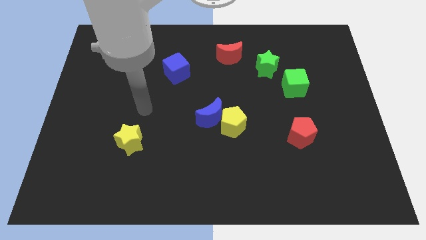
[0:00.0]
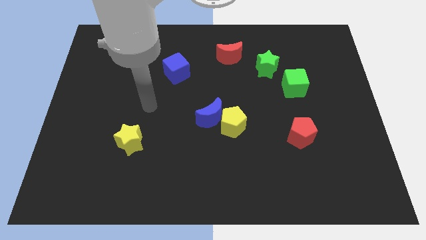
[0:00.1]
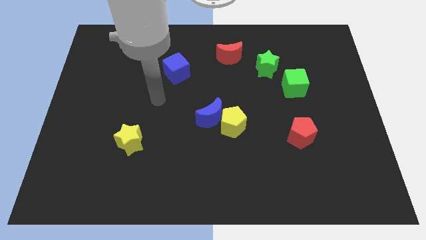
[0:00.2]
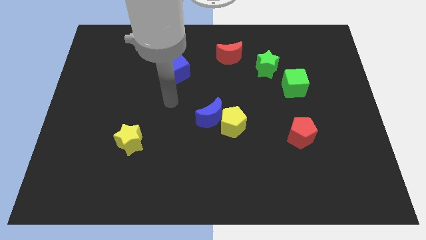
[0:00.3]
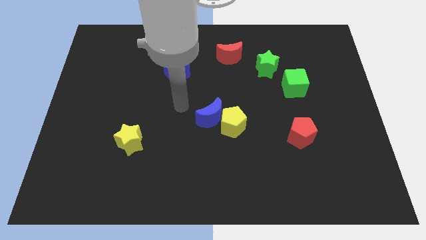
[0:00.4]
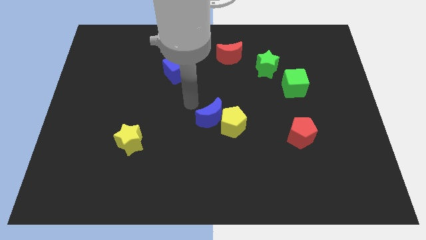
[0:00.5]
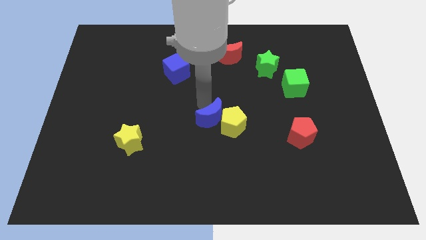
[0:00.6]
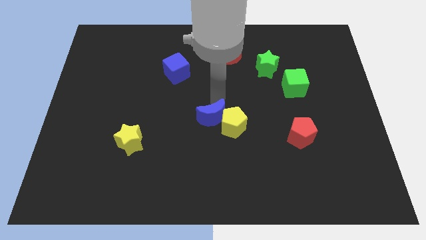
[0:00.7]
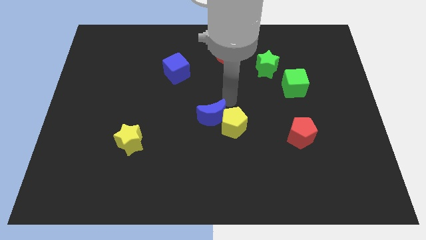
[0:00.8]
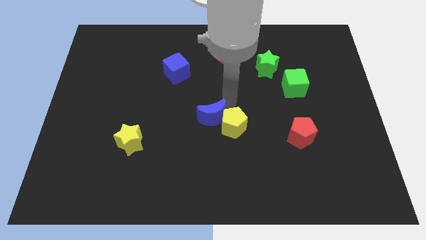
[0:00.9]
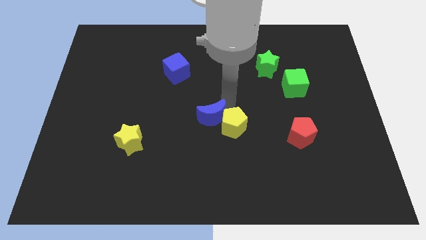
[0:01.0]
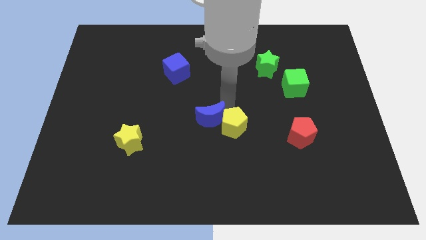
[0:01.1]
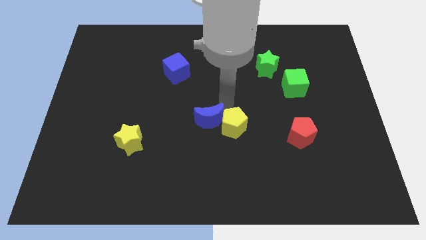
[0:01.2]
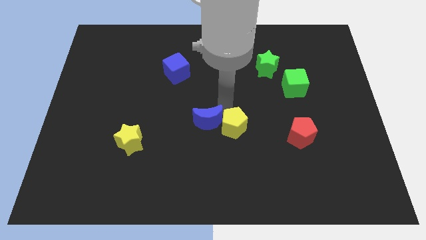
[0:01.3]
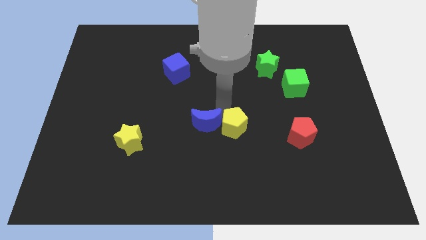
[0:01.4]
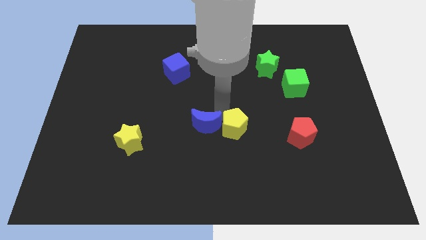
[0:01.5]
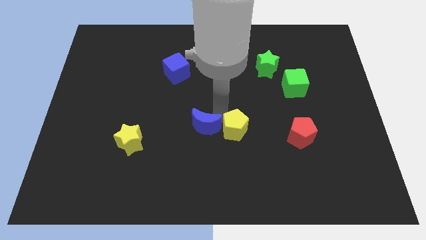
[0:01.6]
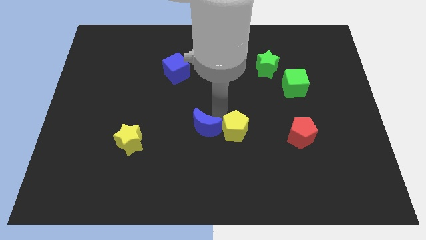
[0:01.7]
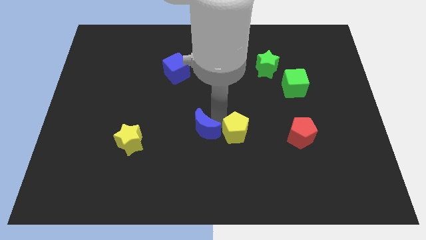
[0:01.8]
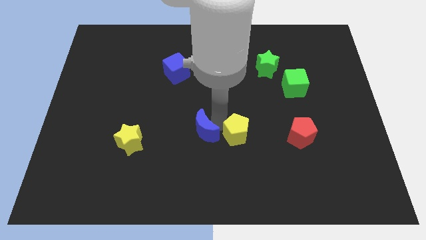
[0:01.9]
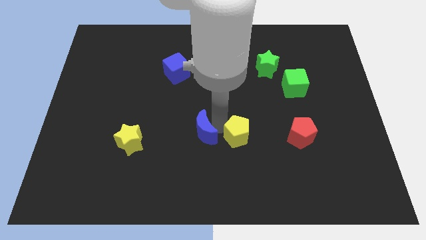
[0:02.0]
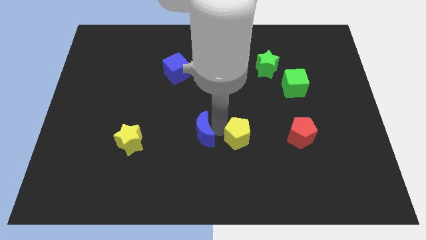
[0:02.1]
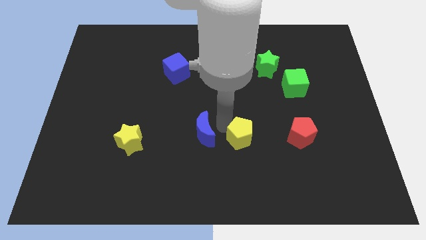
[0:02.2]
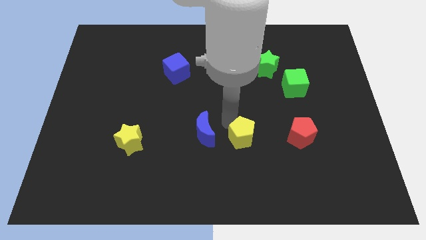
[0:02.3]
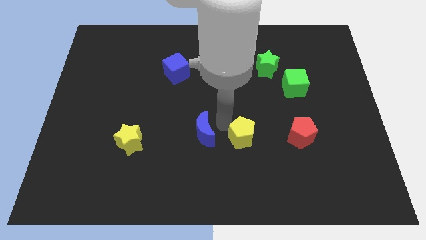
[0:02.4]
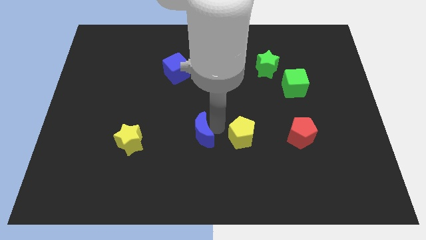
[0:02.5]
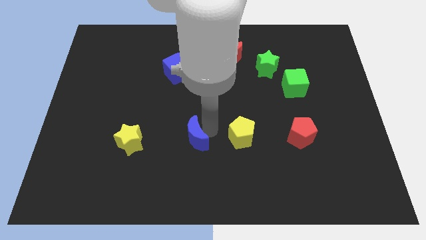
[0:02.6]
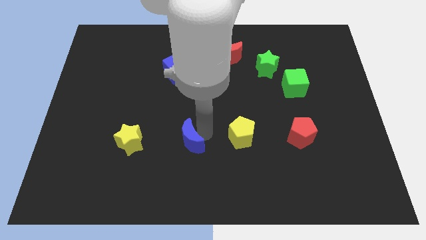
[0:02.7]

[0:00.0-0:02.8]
move the blue moon diagonally down and left a little bit

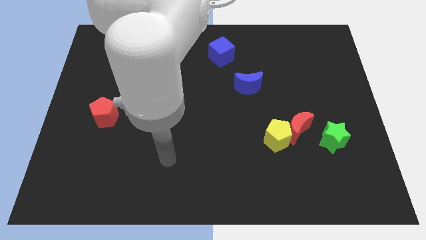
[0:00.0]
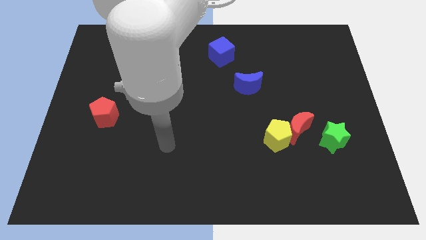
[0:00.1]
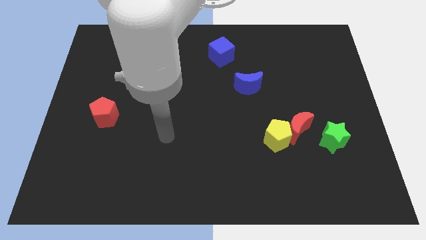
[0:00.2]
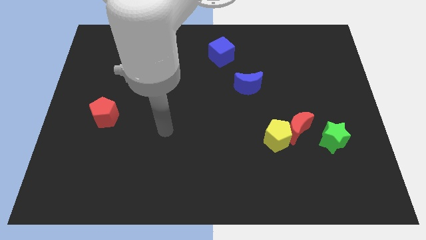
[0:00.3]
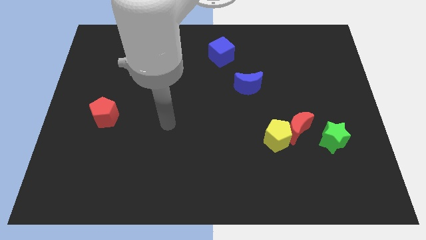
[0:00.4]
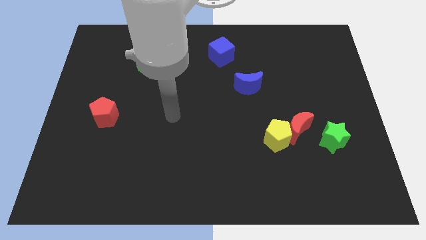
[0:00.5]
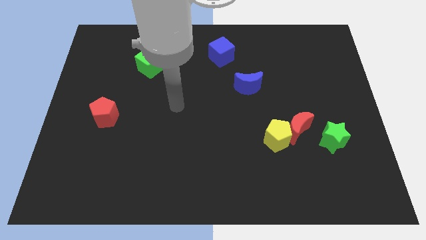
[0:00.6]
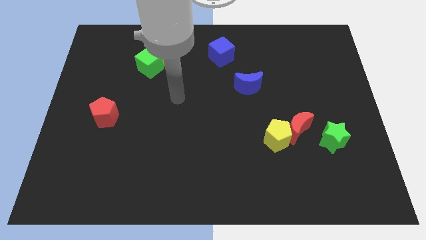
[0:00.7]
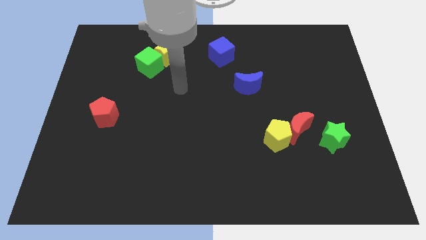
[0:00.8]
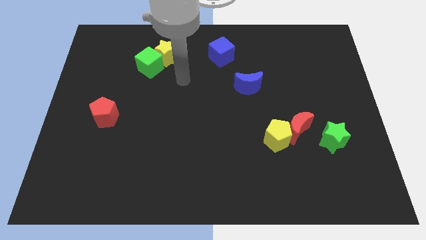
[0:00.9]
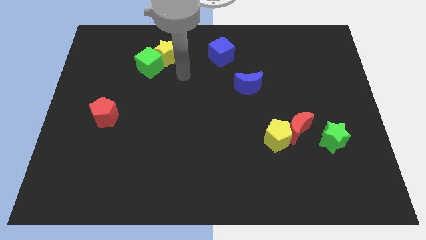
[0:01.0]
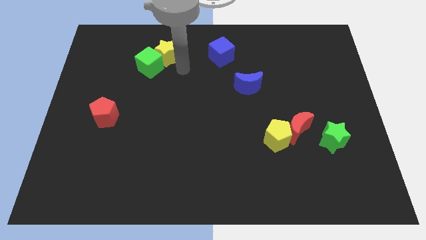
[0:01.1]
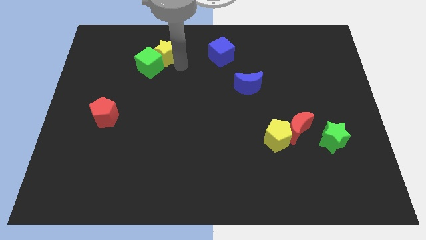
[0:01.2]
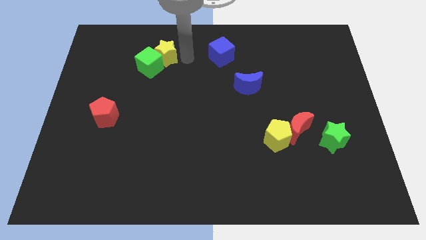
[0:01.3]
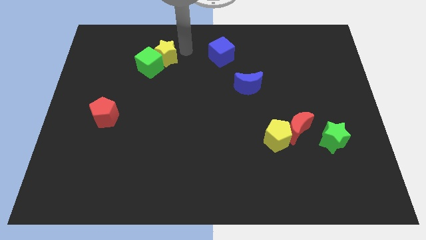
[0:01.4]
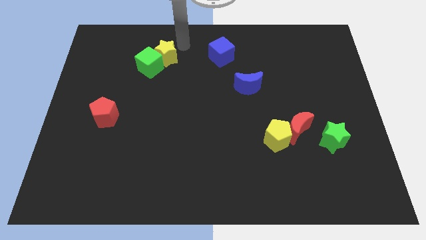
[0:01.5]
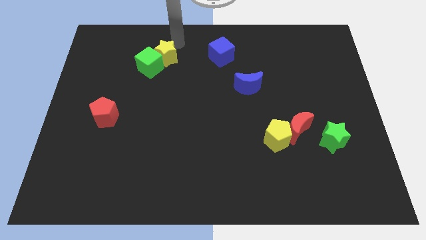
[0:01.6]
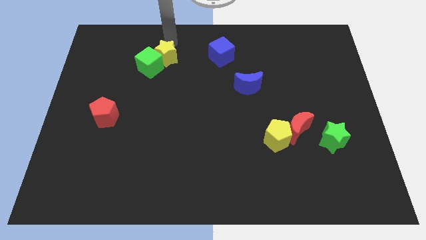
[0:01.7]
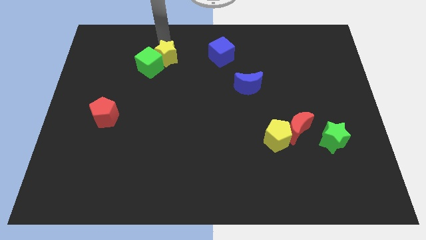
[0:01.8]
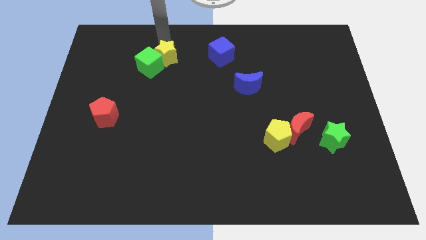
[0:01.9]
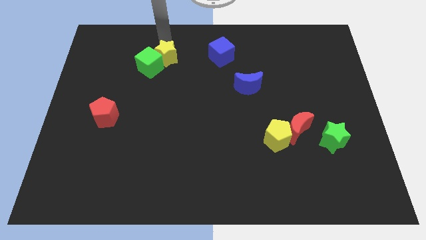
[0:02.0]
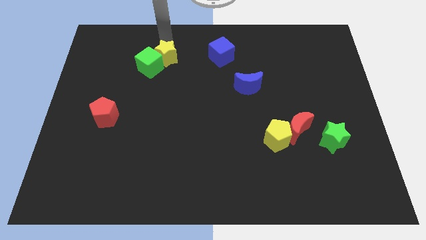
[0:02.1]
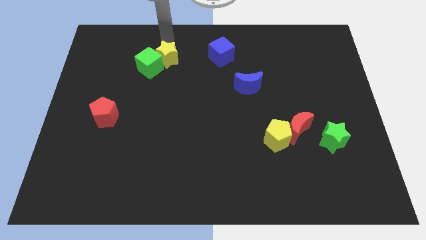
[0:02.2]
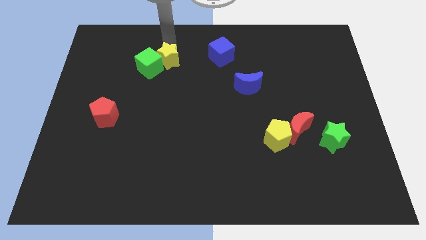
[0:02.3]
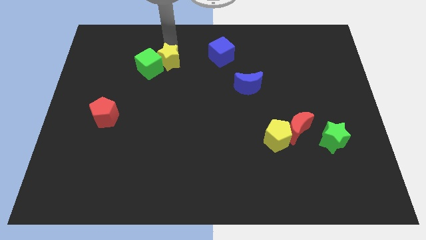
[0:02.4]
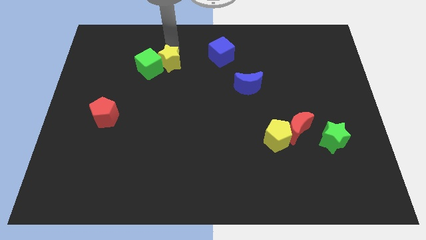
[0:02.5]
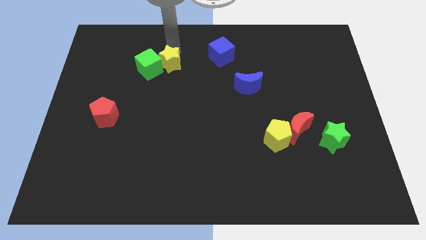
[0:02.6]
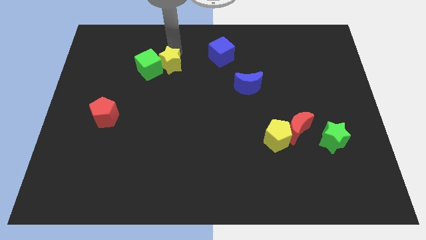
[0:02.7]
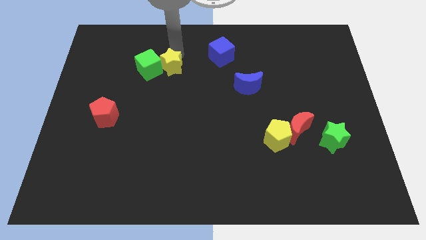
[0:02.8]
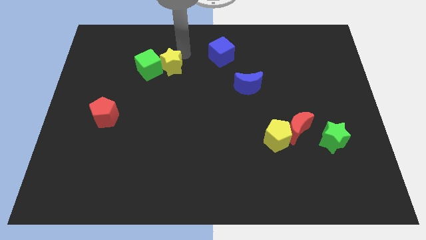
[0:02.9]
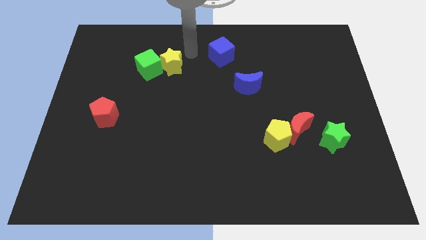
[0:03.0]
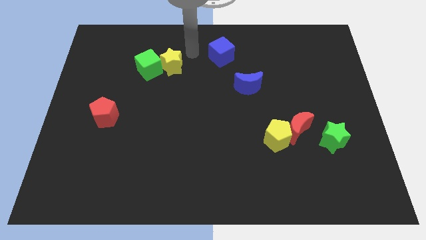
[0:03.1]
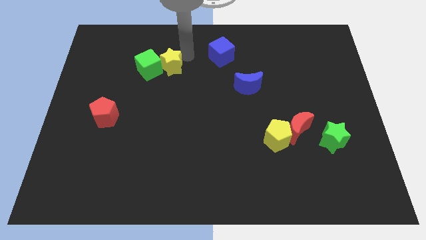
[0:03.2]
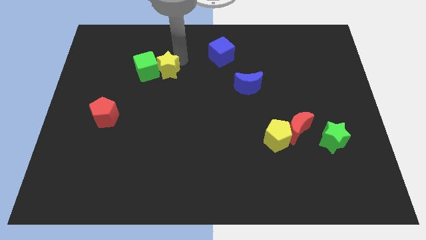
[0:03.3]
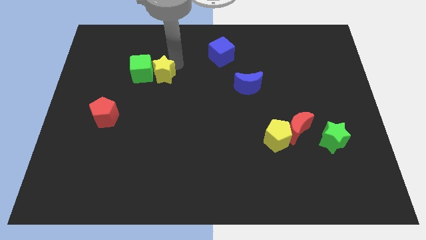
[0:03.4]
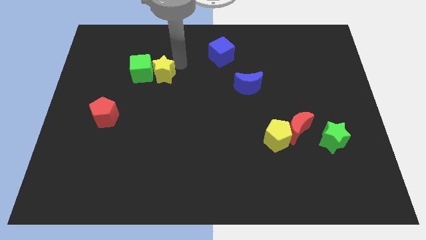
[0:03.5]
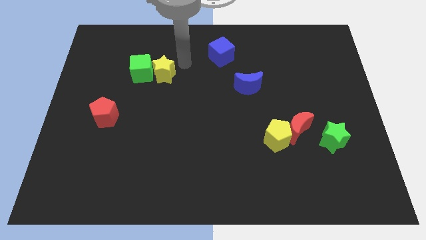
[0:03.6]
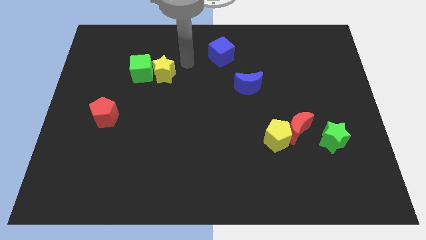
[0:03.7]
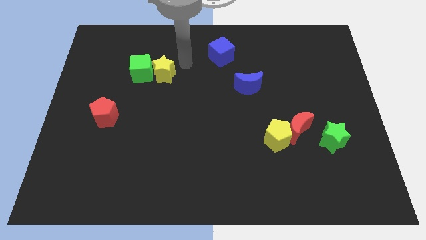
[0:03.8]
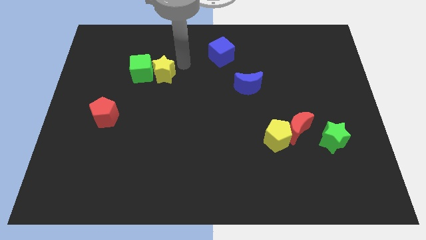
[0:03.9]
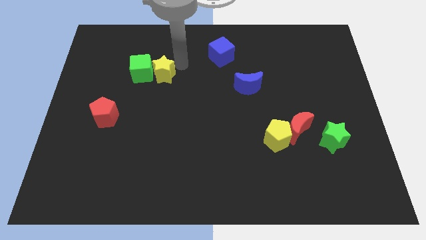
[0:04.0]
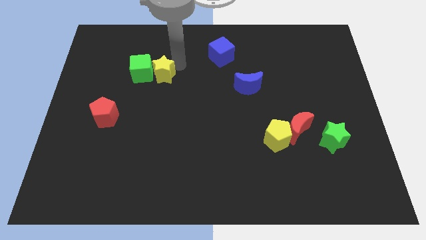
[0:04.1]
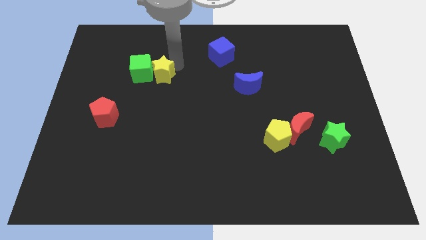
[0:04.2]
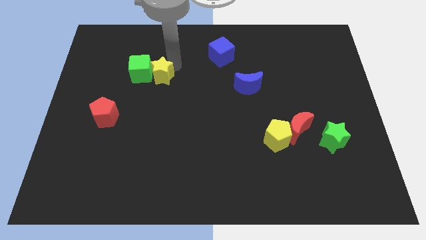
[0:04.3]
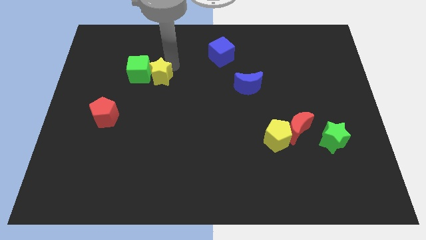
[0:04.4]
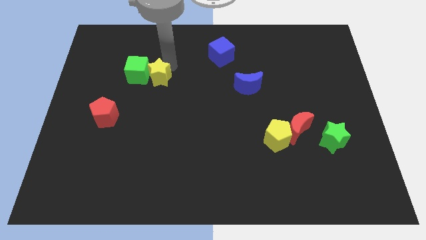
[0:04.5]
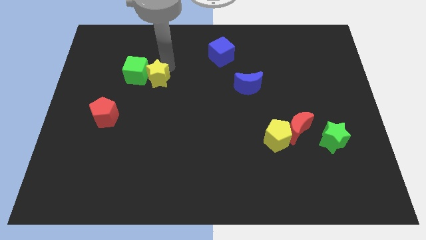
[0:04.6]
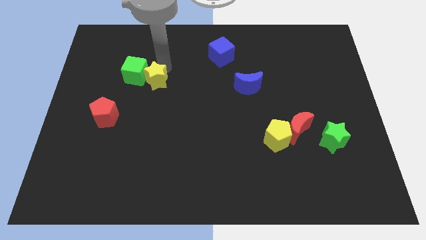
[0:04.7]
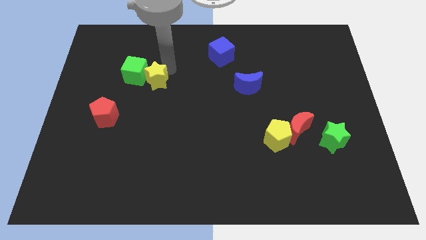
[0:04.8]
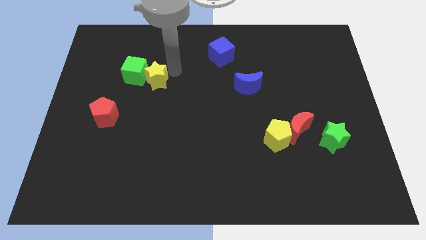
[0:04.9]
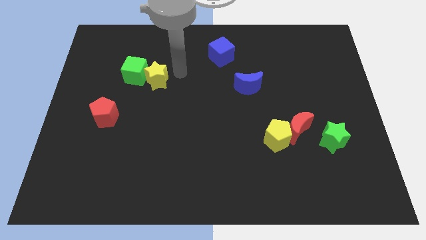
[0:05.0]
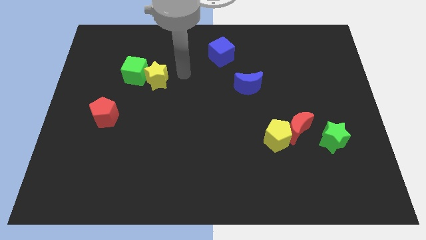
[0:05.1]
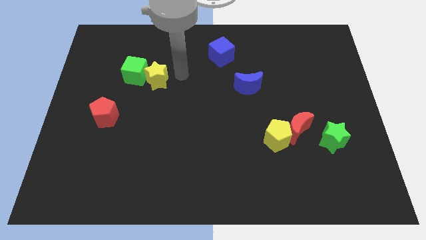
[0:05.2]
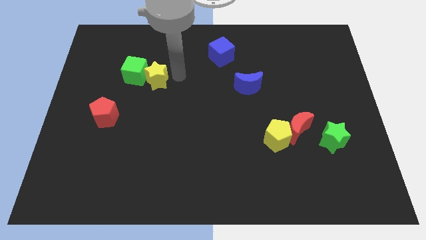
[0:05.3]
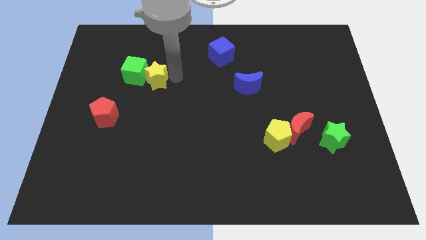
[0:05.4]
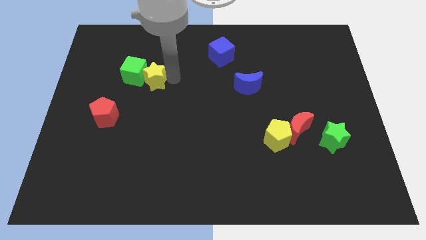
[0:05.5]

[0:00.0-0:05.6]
move the yellow star slightly downwards and to the left
